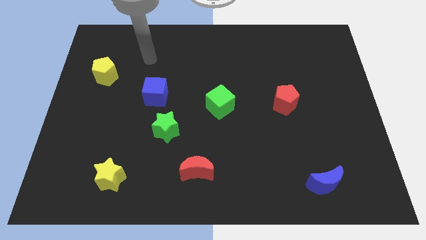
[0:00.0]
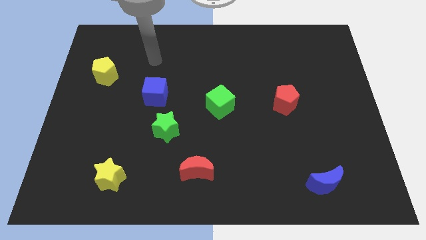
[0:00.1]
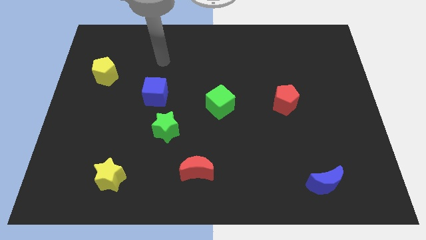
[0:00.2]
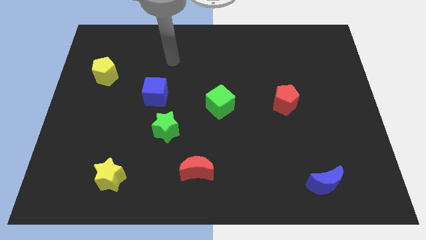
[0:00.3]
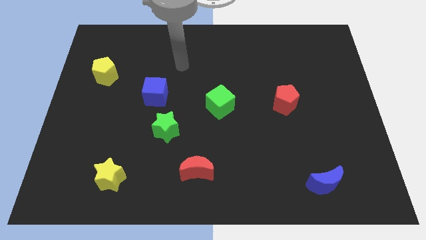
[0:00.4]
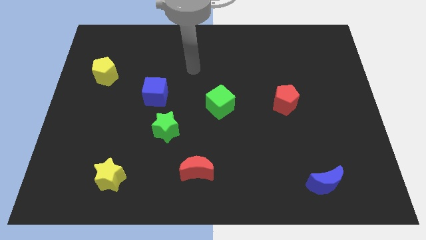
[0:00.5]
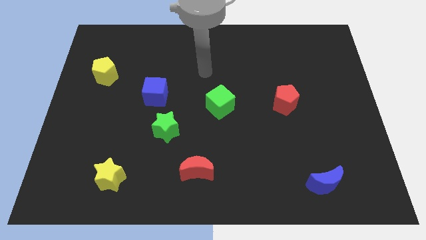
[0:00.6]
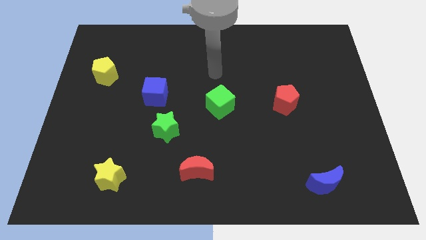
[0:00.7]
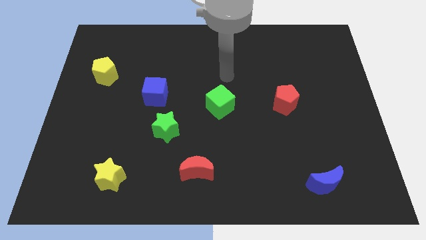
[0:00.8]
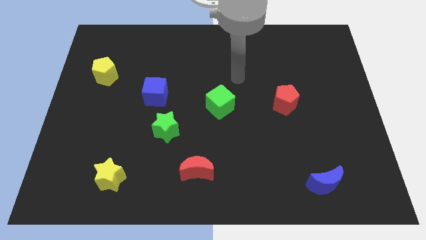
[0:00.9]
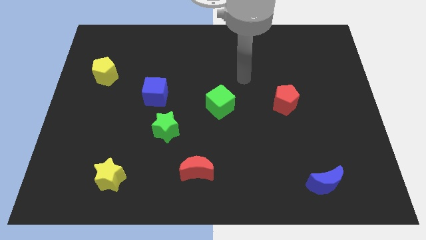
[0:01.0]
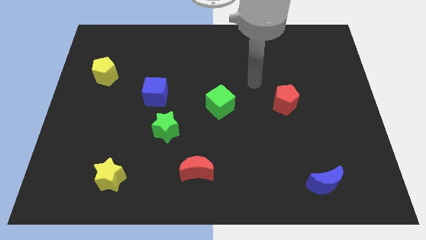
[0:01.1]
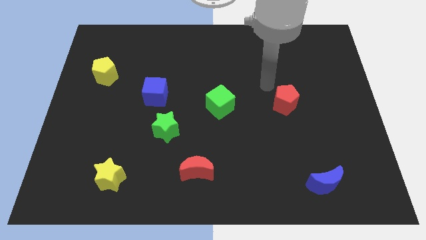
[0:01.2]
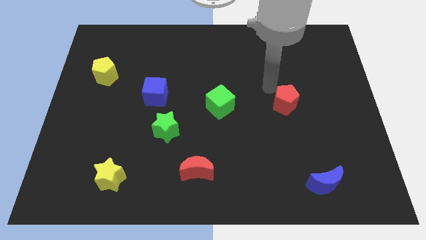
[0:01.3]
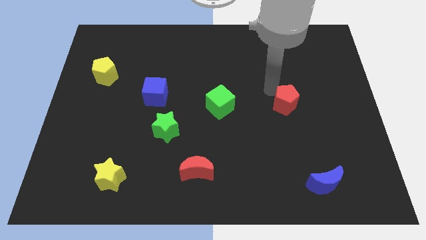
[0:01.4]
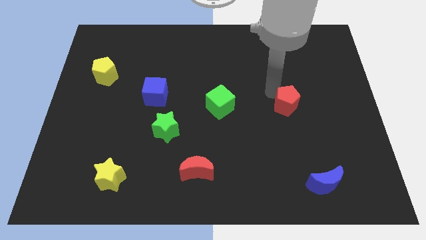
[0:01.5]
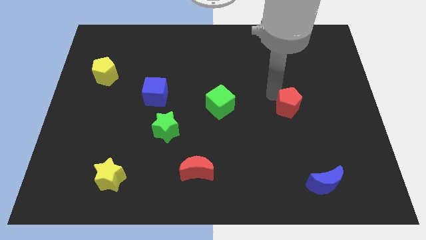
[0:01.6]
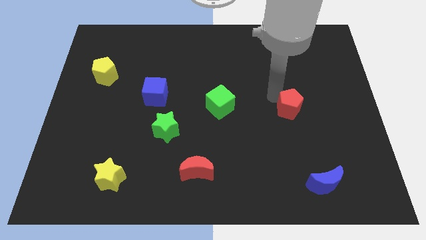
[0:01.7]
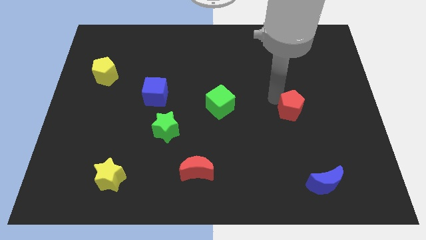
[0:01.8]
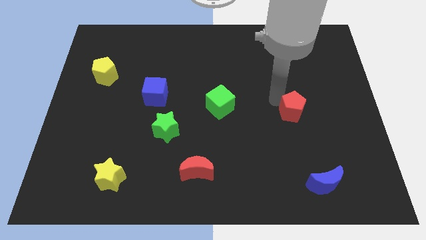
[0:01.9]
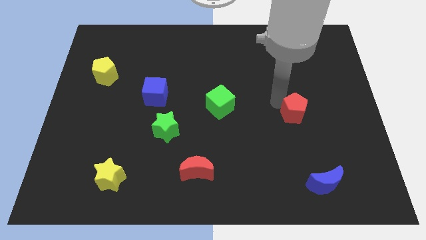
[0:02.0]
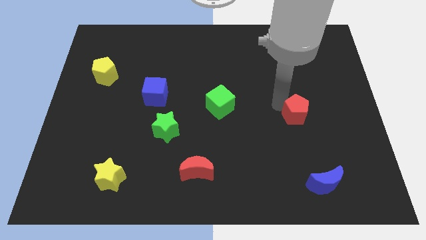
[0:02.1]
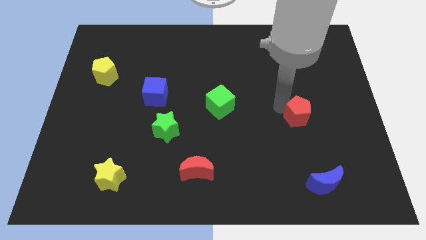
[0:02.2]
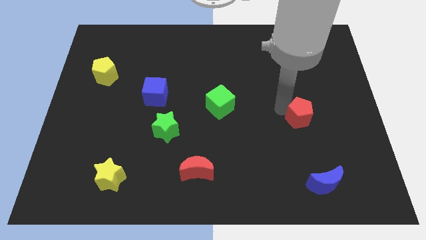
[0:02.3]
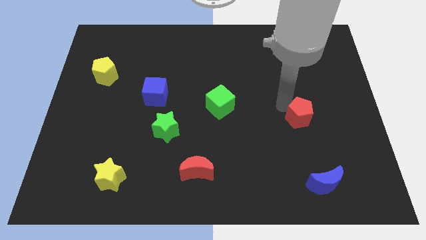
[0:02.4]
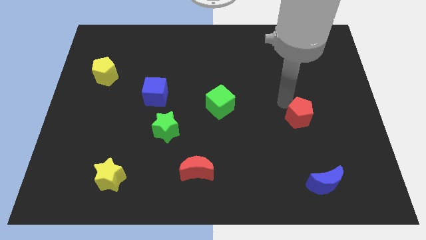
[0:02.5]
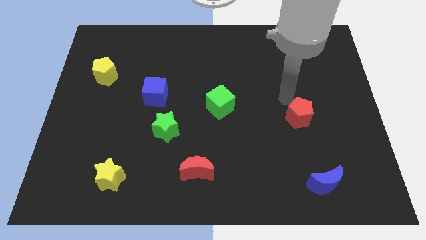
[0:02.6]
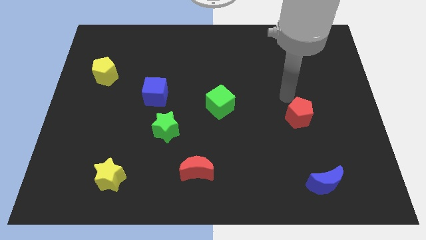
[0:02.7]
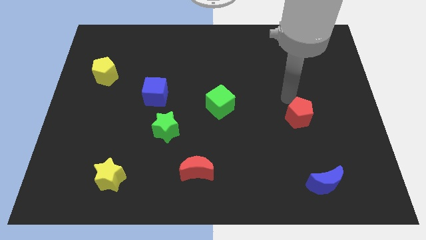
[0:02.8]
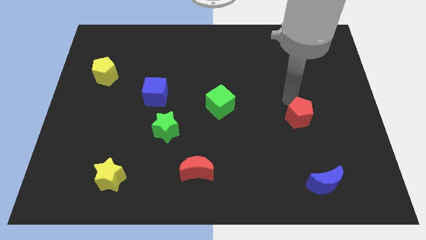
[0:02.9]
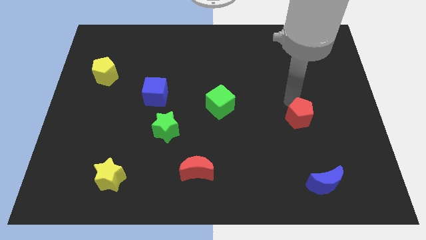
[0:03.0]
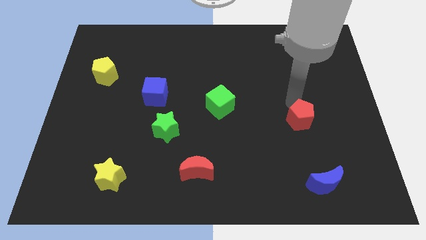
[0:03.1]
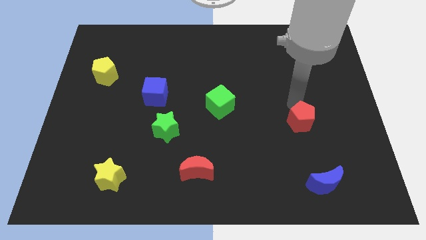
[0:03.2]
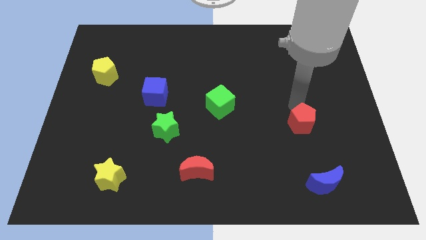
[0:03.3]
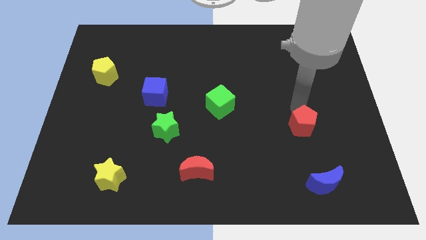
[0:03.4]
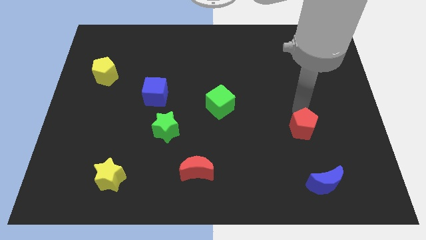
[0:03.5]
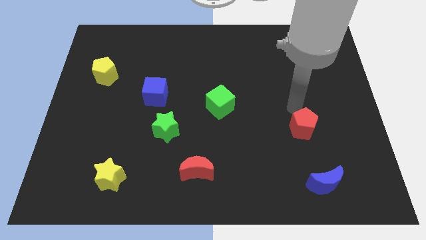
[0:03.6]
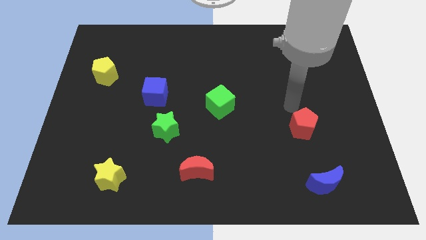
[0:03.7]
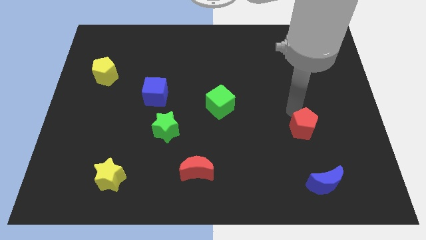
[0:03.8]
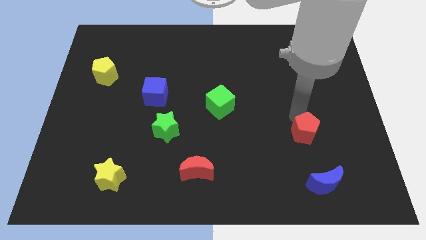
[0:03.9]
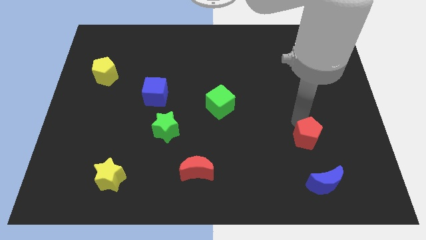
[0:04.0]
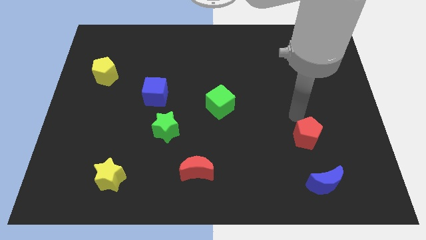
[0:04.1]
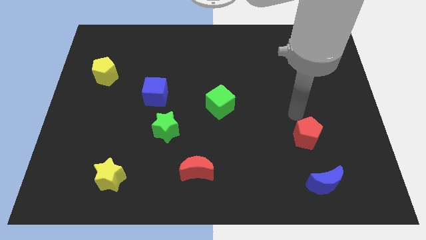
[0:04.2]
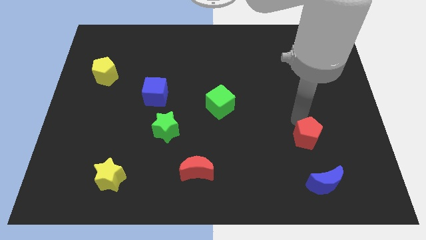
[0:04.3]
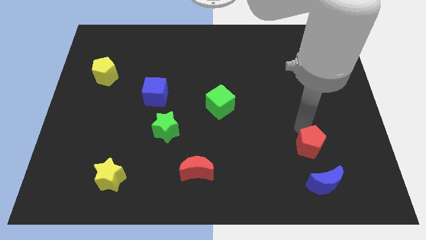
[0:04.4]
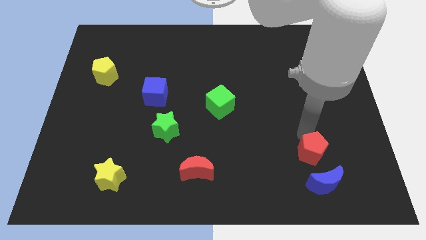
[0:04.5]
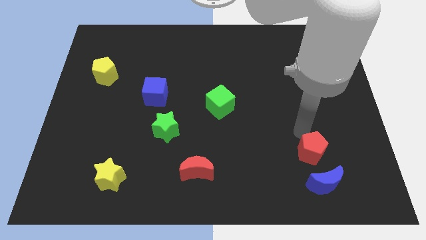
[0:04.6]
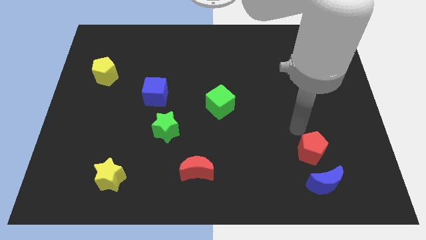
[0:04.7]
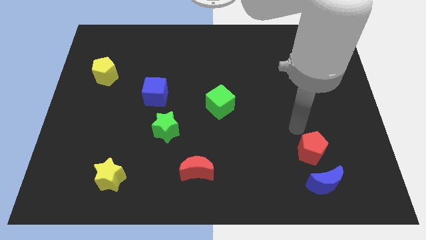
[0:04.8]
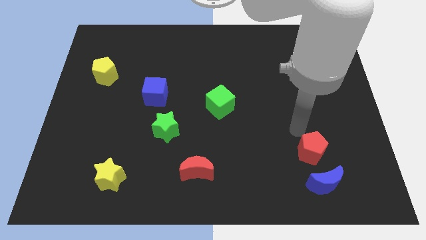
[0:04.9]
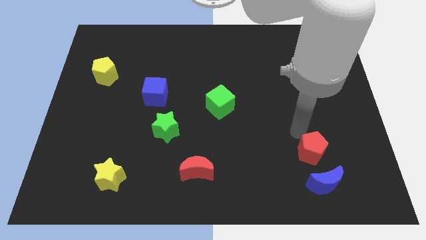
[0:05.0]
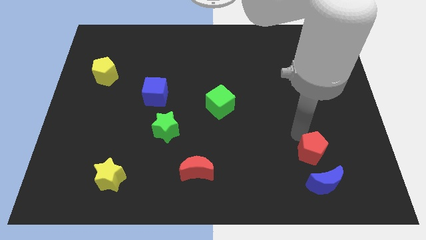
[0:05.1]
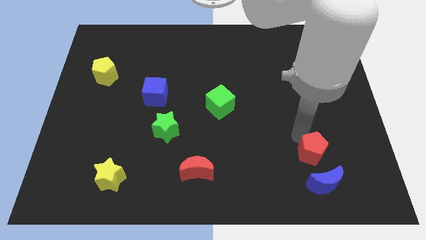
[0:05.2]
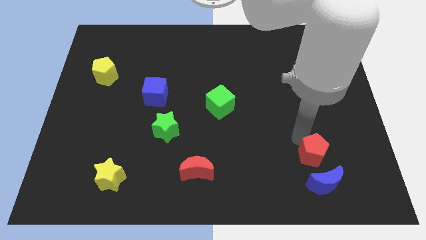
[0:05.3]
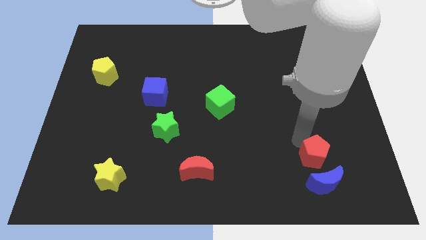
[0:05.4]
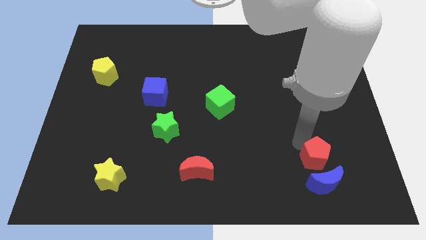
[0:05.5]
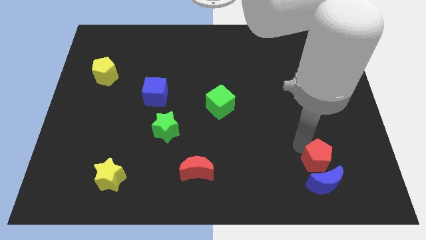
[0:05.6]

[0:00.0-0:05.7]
slide the red pentagon towards the blue moon

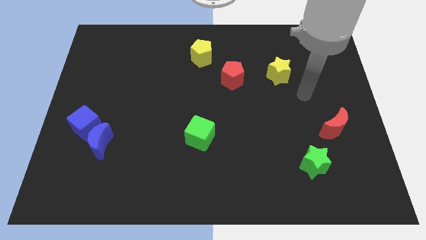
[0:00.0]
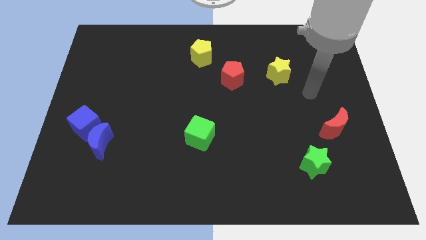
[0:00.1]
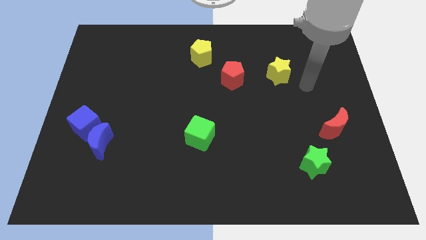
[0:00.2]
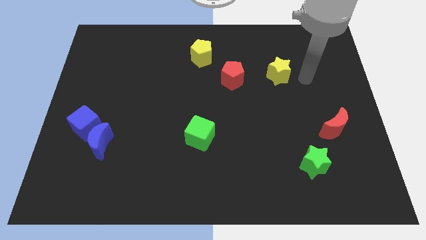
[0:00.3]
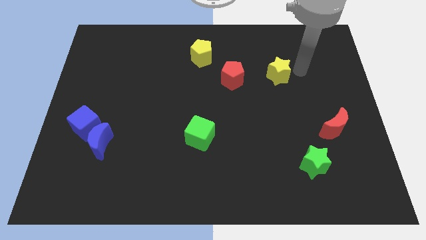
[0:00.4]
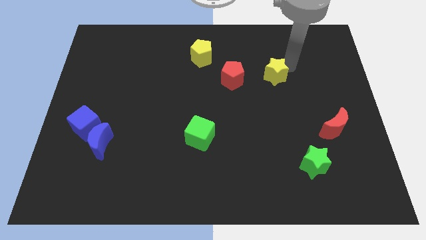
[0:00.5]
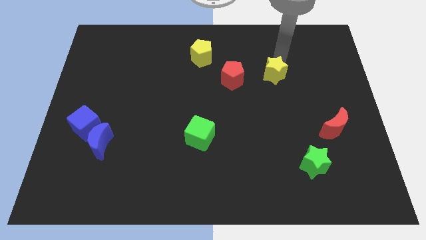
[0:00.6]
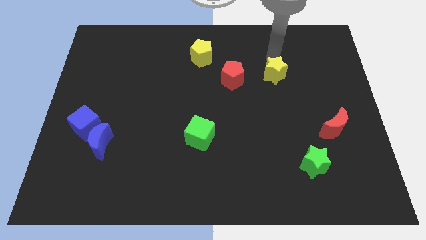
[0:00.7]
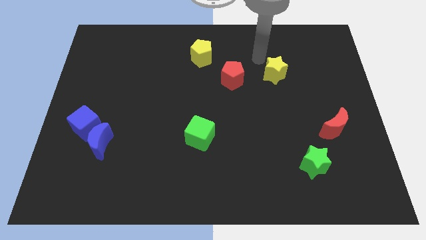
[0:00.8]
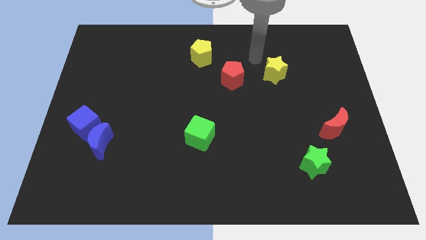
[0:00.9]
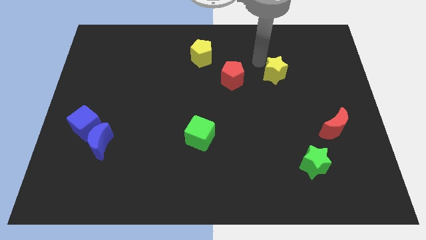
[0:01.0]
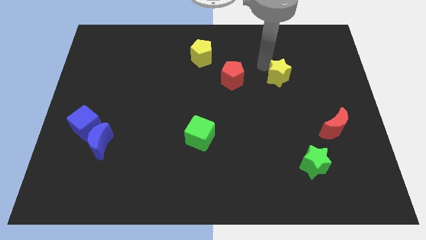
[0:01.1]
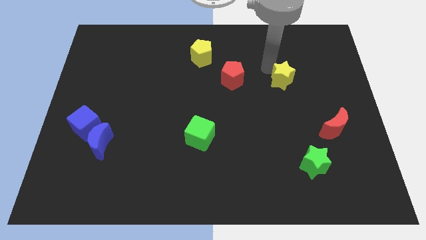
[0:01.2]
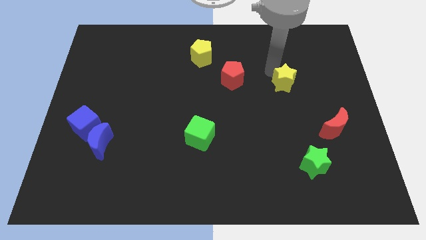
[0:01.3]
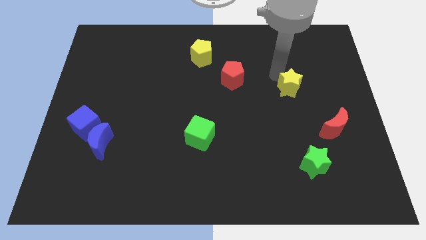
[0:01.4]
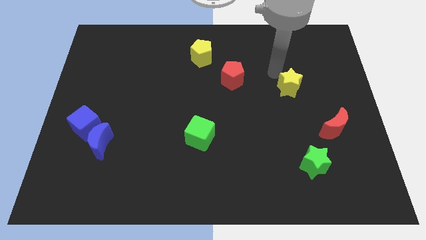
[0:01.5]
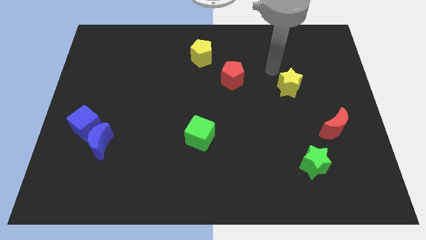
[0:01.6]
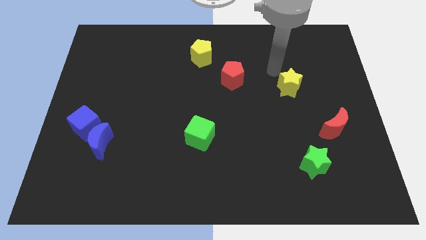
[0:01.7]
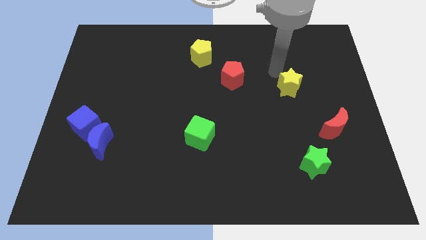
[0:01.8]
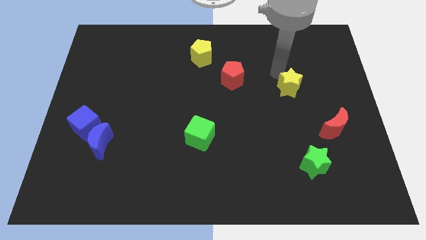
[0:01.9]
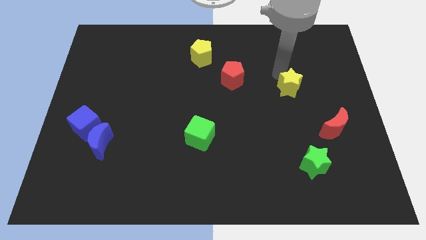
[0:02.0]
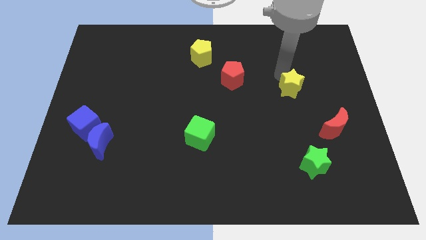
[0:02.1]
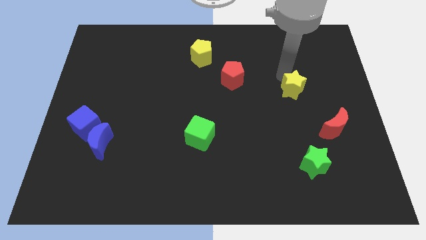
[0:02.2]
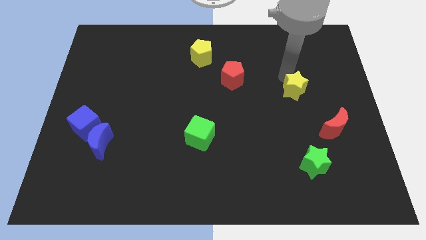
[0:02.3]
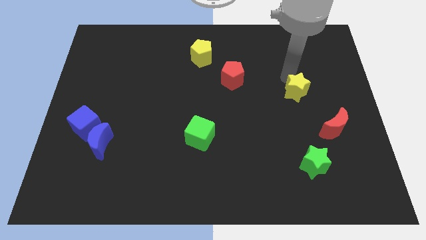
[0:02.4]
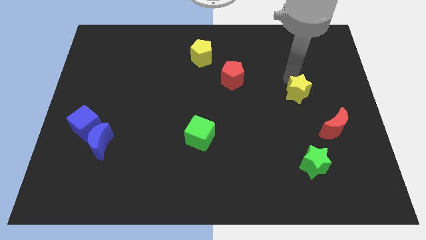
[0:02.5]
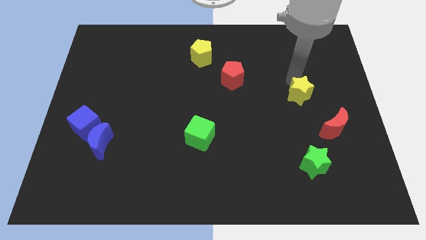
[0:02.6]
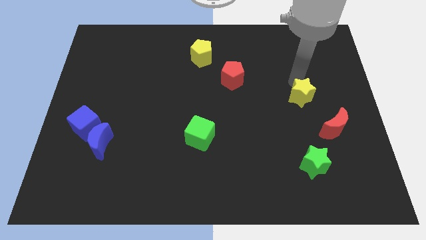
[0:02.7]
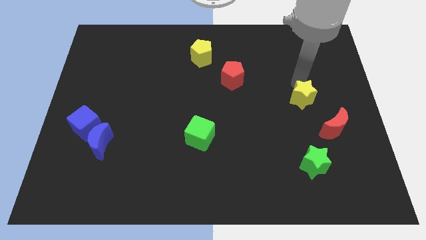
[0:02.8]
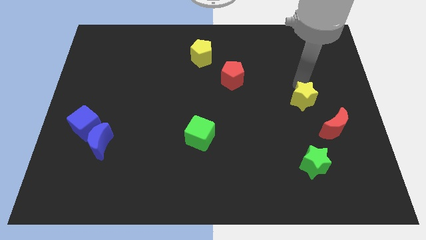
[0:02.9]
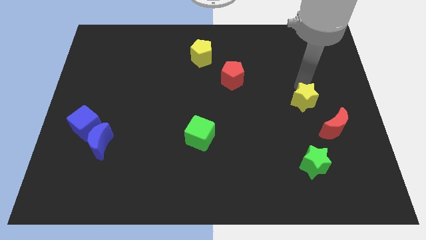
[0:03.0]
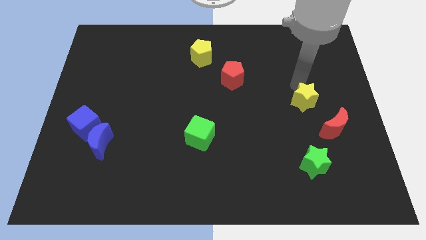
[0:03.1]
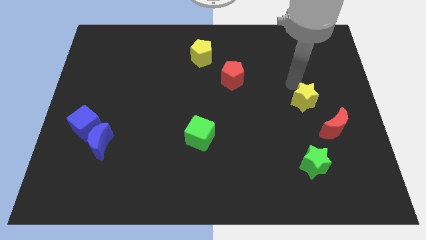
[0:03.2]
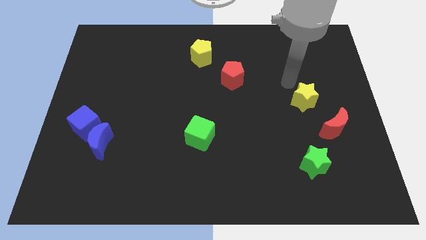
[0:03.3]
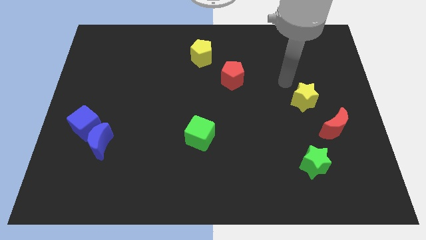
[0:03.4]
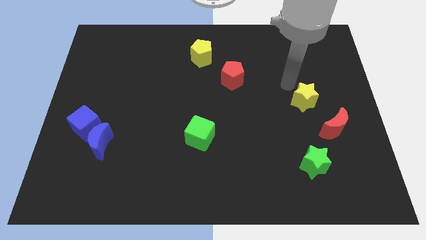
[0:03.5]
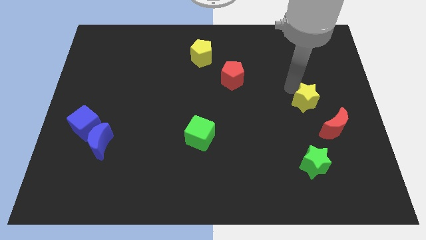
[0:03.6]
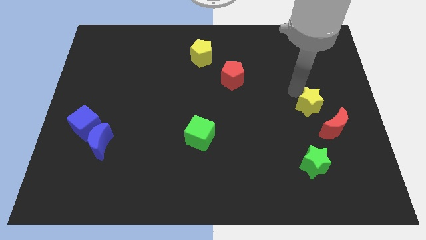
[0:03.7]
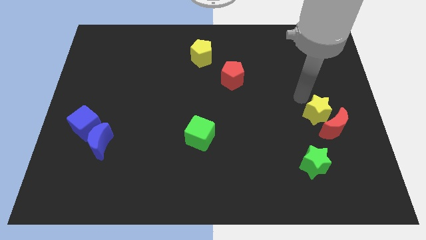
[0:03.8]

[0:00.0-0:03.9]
put the yellow star towards the red moon
